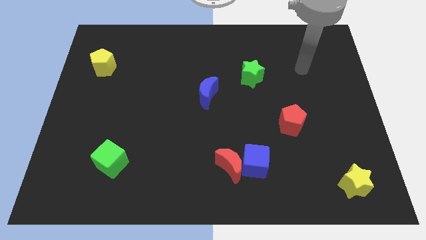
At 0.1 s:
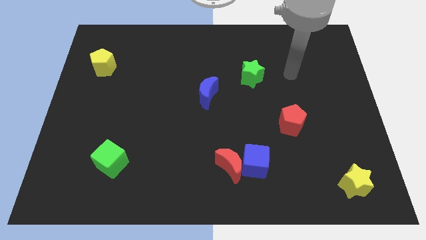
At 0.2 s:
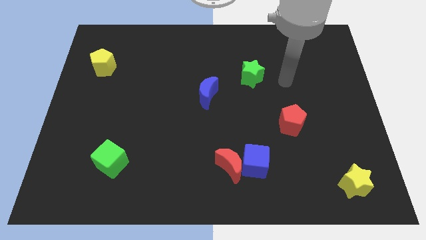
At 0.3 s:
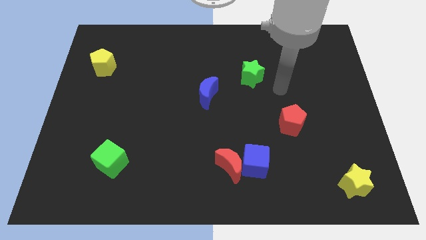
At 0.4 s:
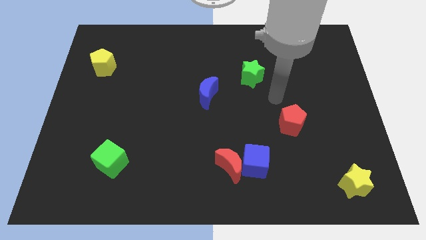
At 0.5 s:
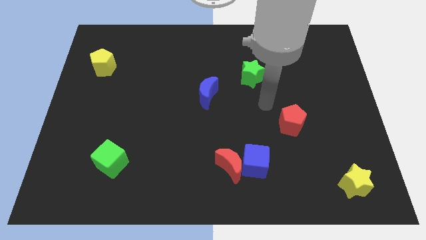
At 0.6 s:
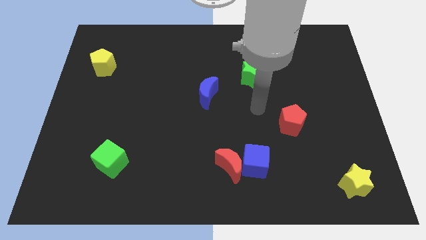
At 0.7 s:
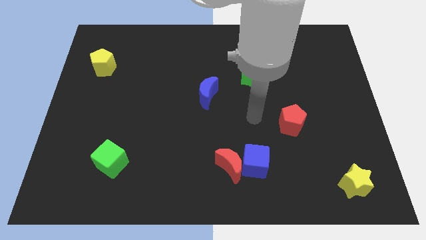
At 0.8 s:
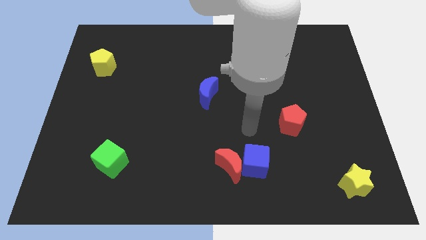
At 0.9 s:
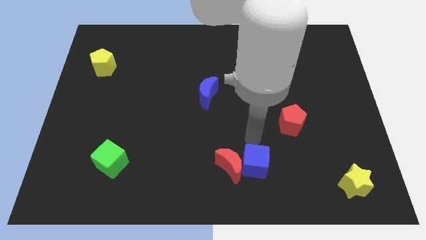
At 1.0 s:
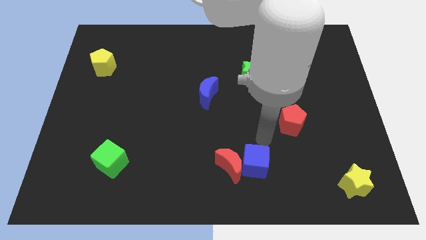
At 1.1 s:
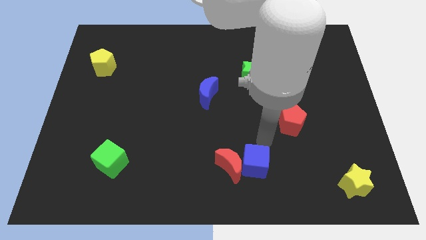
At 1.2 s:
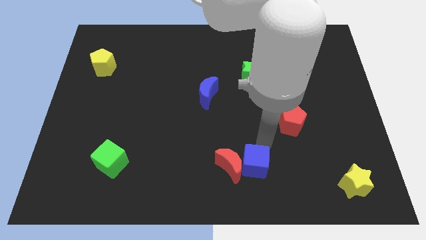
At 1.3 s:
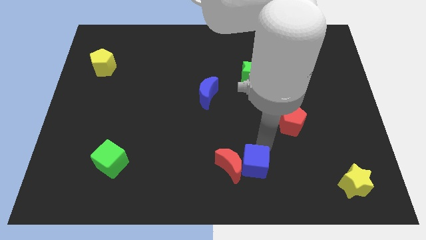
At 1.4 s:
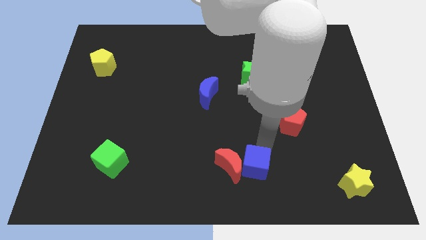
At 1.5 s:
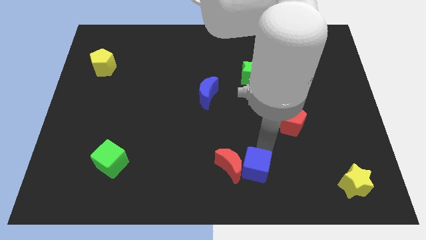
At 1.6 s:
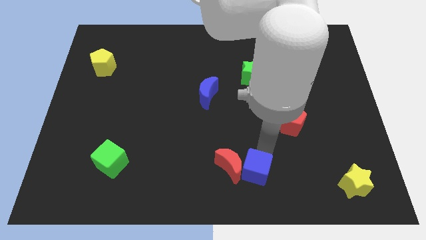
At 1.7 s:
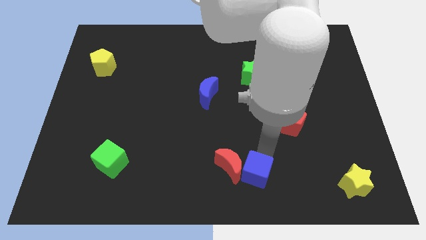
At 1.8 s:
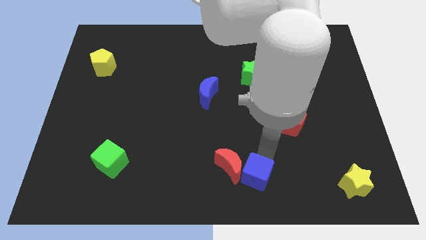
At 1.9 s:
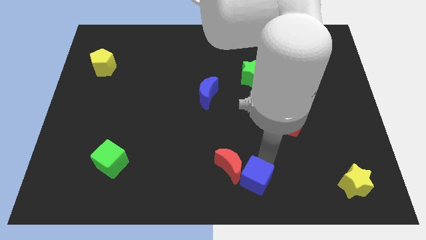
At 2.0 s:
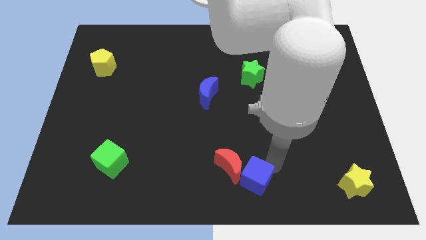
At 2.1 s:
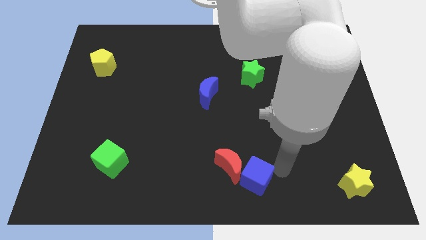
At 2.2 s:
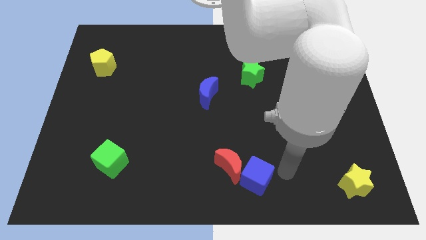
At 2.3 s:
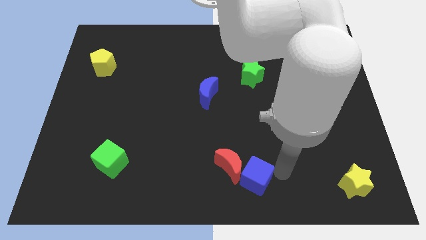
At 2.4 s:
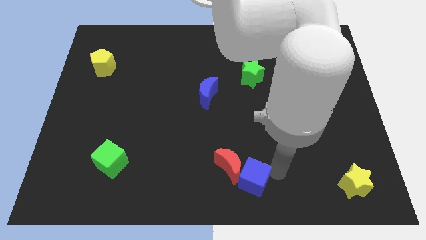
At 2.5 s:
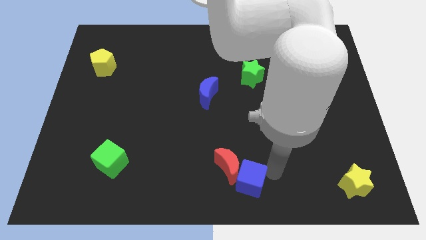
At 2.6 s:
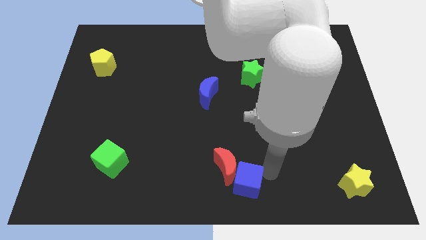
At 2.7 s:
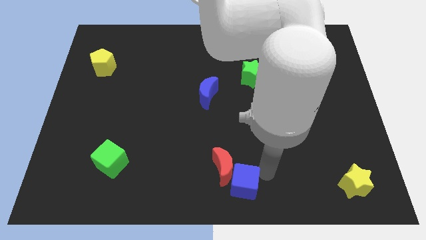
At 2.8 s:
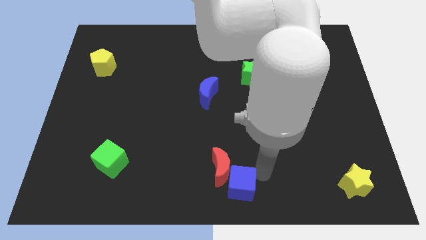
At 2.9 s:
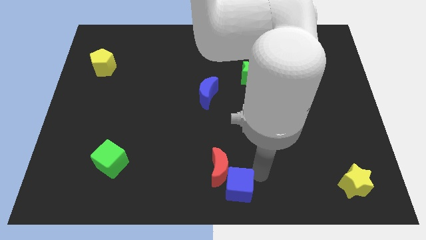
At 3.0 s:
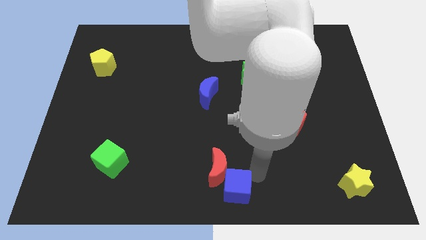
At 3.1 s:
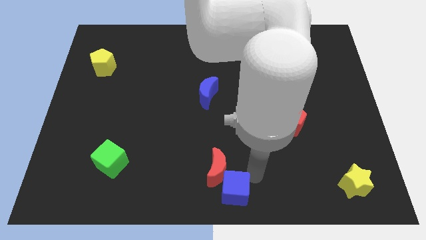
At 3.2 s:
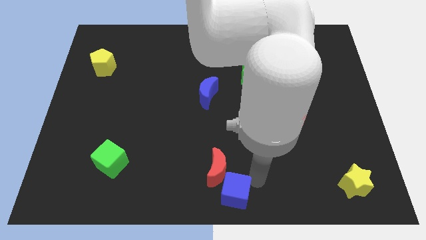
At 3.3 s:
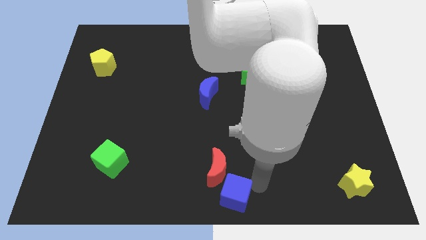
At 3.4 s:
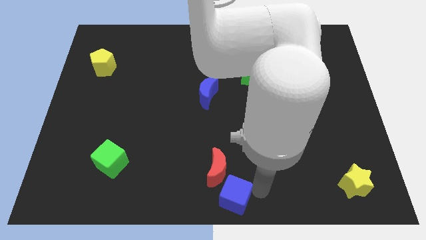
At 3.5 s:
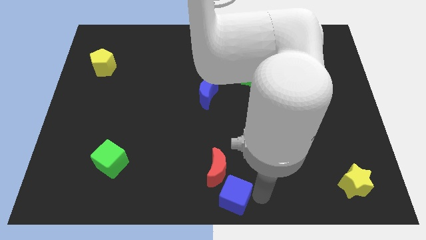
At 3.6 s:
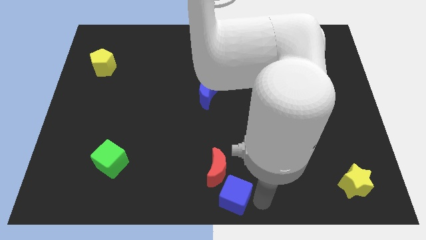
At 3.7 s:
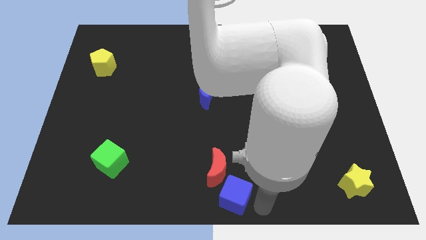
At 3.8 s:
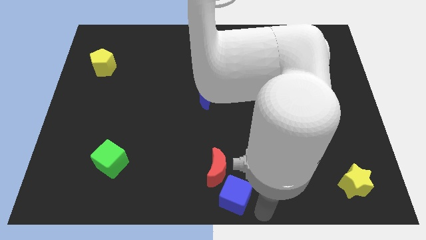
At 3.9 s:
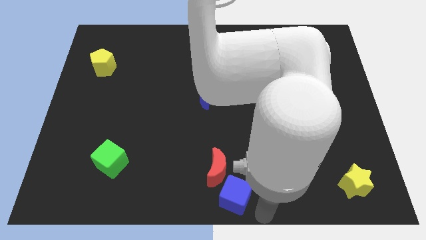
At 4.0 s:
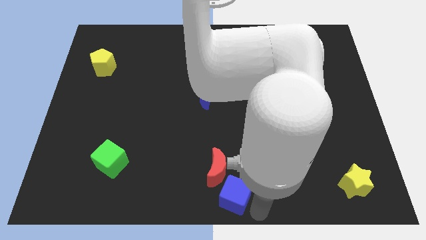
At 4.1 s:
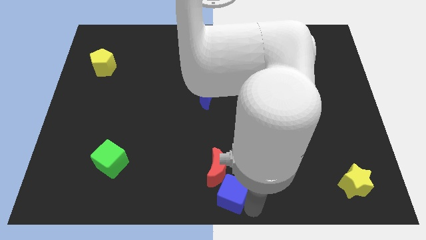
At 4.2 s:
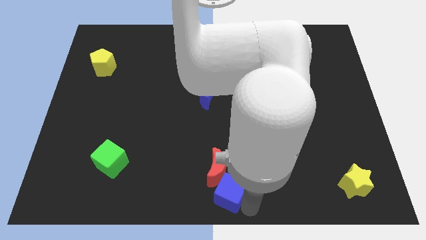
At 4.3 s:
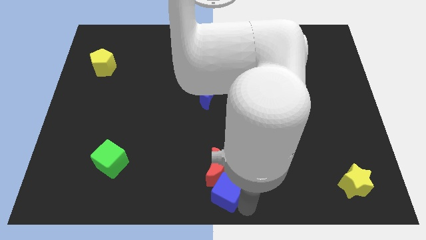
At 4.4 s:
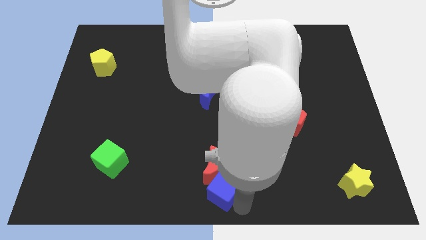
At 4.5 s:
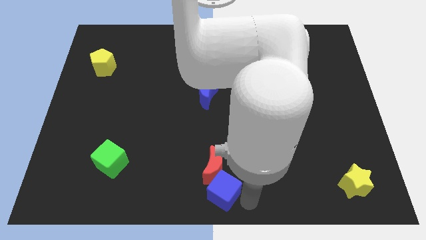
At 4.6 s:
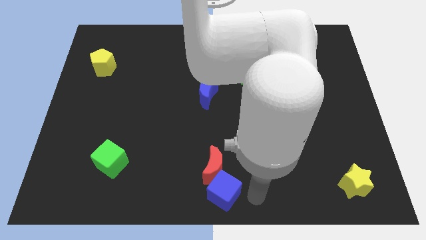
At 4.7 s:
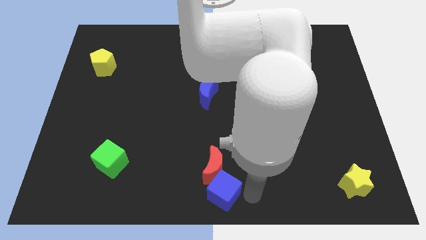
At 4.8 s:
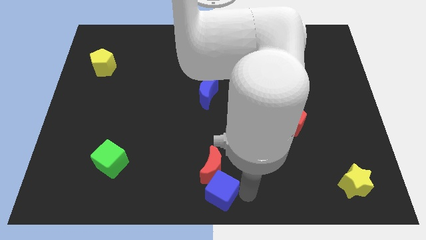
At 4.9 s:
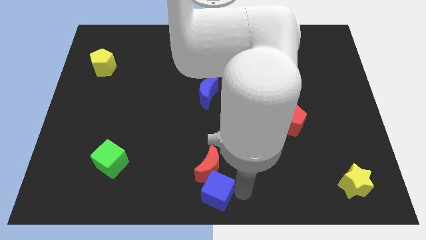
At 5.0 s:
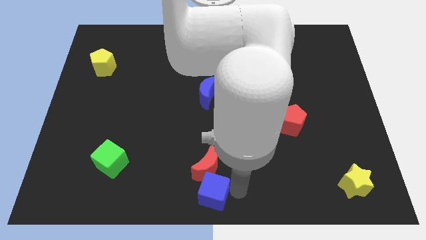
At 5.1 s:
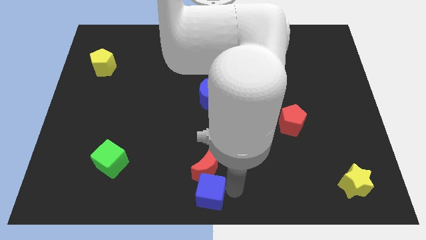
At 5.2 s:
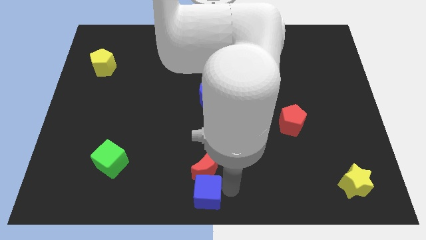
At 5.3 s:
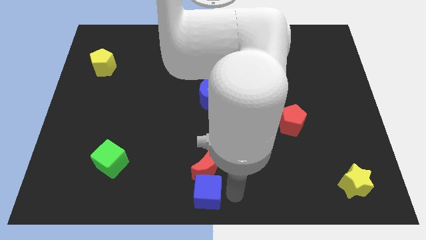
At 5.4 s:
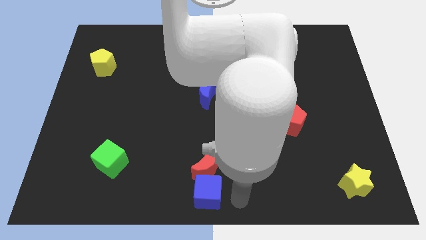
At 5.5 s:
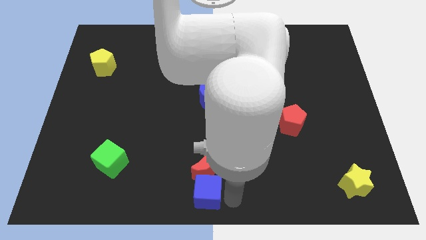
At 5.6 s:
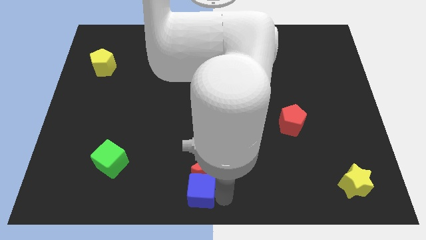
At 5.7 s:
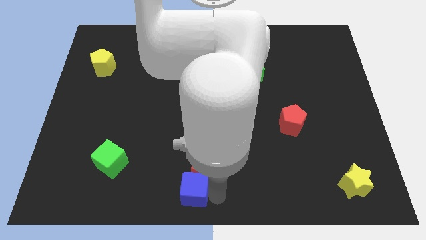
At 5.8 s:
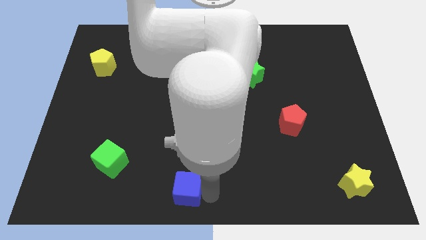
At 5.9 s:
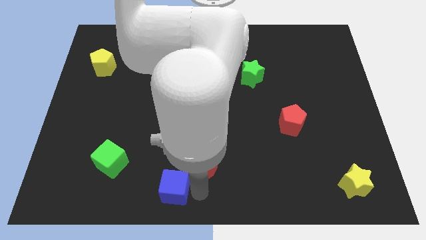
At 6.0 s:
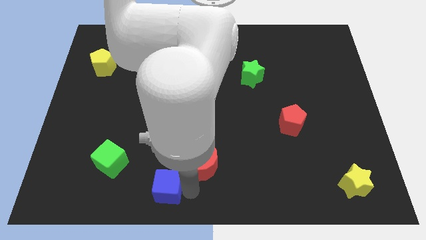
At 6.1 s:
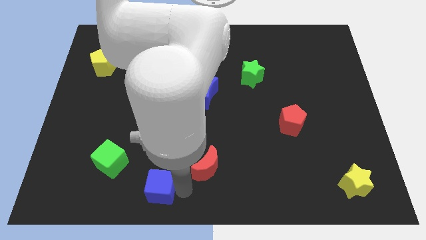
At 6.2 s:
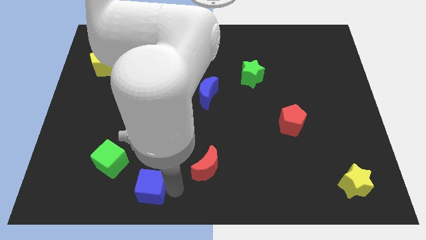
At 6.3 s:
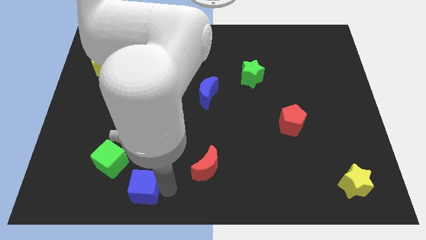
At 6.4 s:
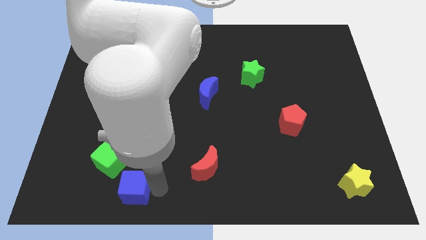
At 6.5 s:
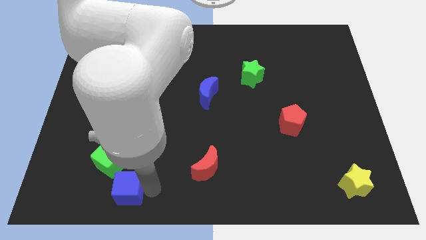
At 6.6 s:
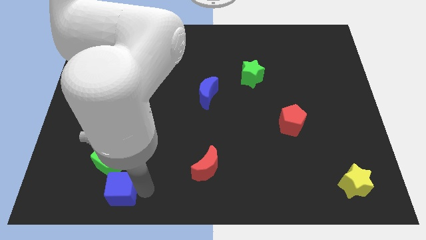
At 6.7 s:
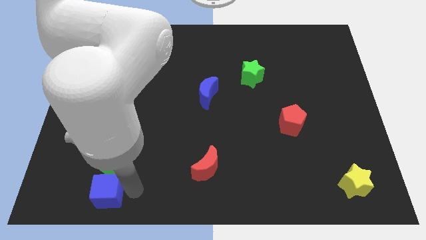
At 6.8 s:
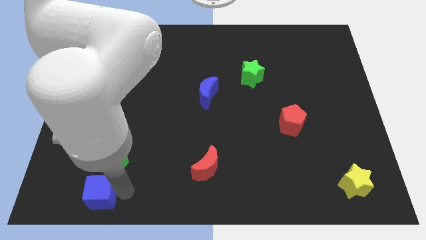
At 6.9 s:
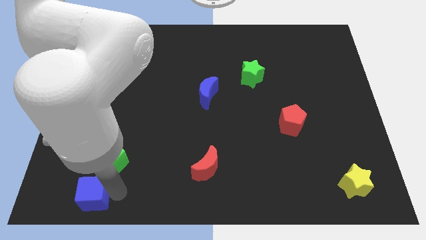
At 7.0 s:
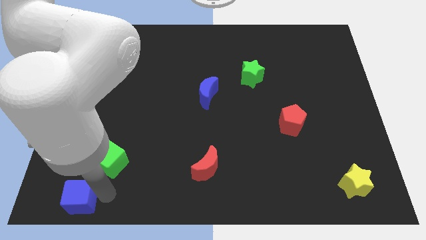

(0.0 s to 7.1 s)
slide the blue cube to the bottom left of the board
